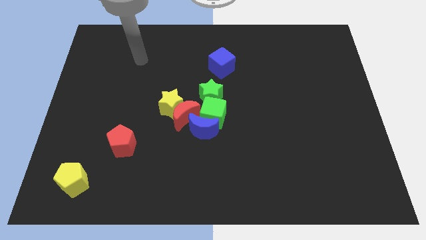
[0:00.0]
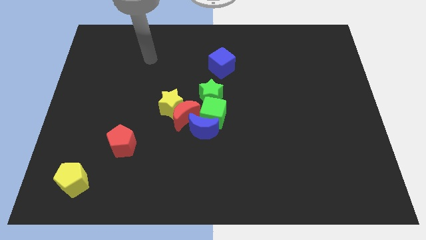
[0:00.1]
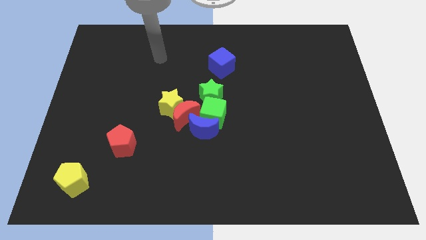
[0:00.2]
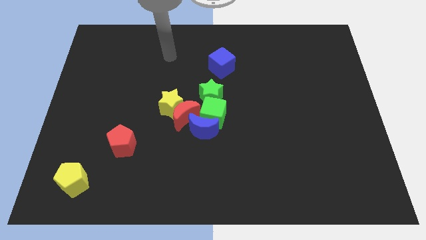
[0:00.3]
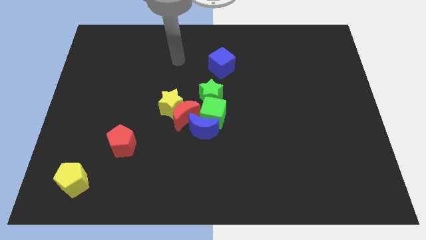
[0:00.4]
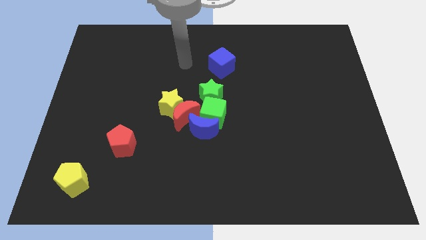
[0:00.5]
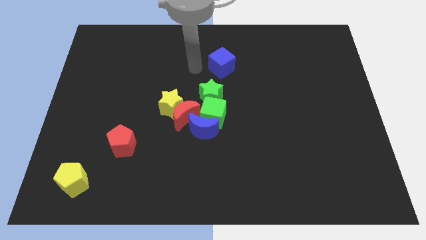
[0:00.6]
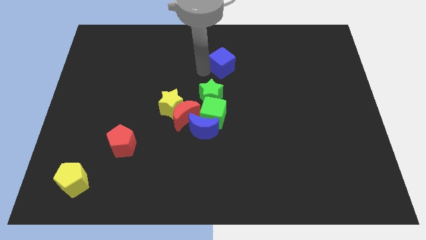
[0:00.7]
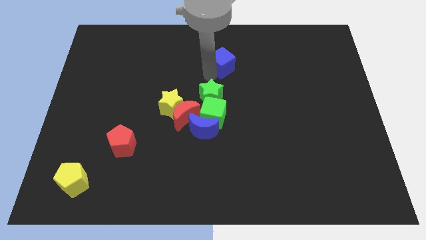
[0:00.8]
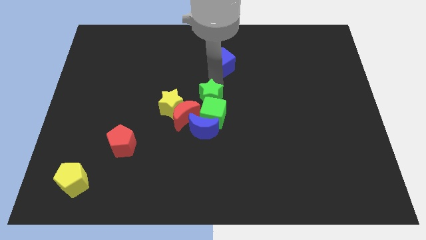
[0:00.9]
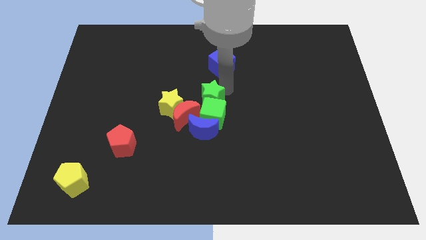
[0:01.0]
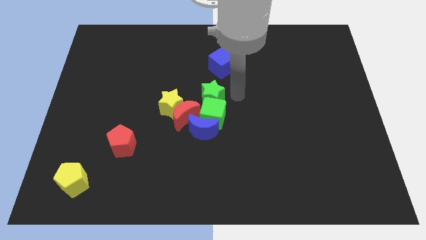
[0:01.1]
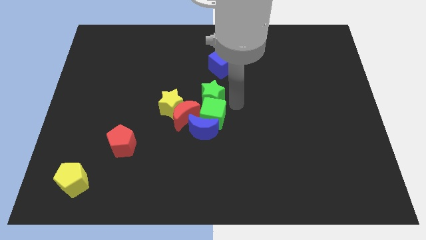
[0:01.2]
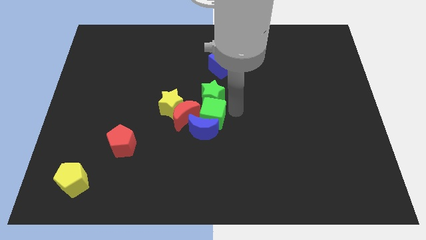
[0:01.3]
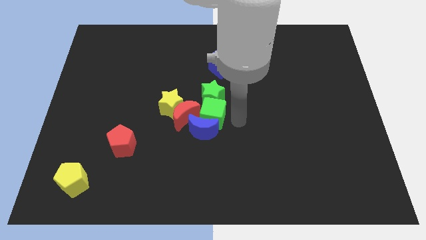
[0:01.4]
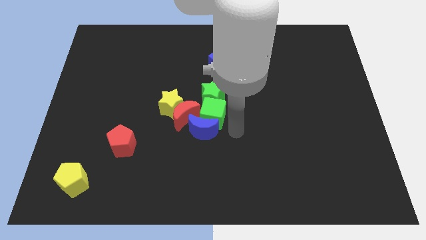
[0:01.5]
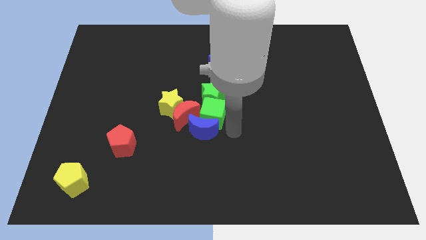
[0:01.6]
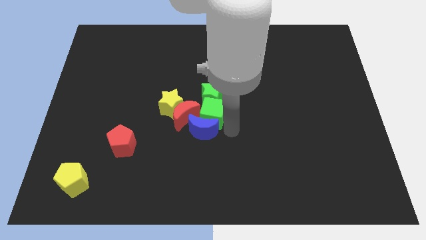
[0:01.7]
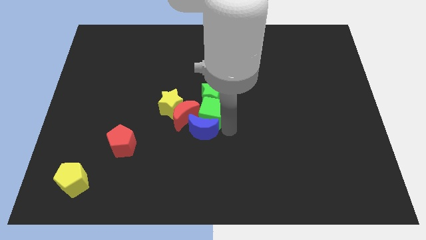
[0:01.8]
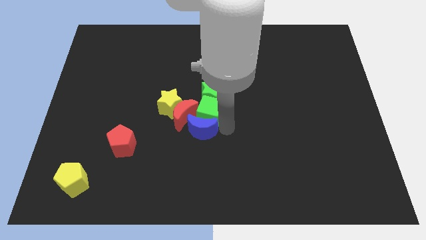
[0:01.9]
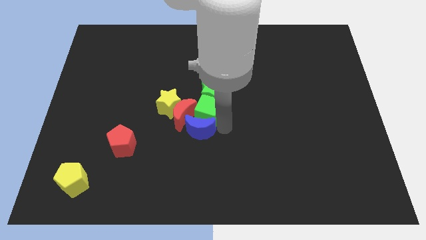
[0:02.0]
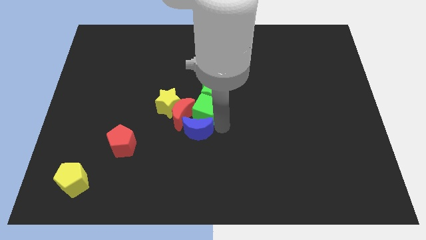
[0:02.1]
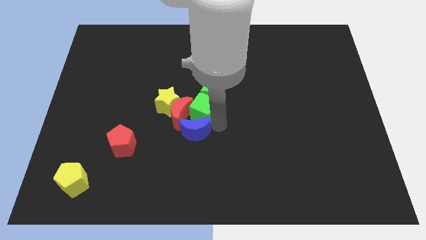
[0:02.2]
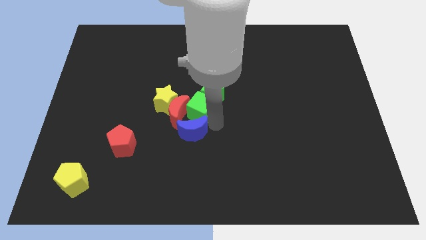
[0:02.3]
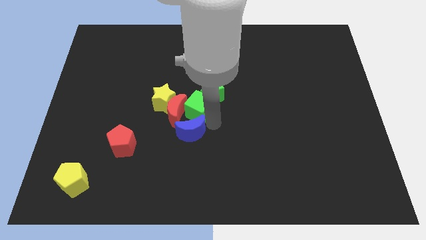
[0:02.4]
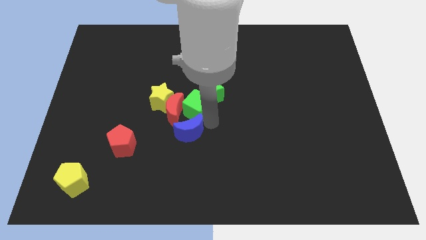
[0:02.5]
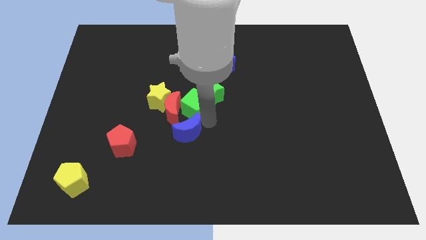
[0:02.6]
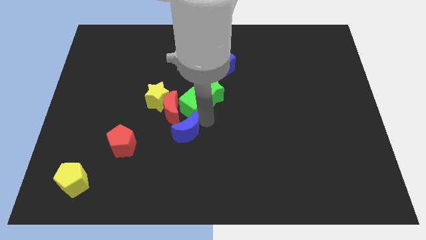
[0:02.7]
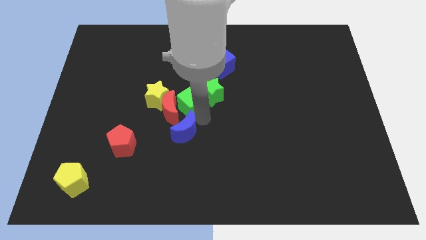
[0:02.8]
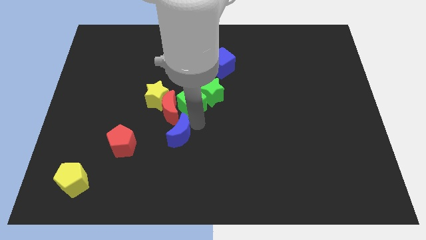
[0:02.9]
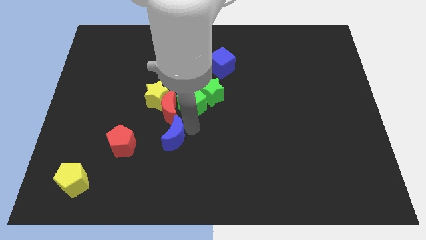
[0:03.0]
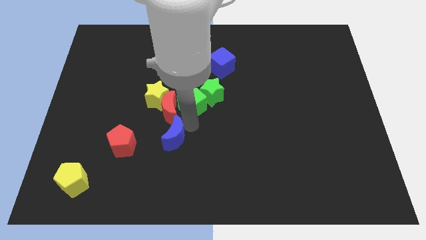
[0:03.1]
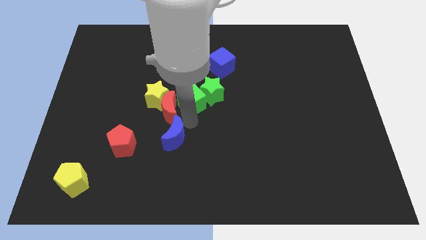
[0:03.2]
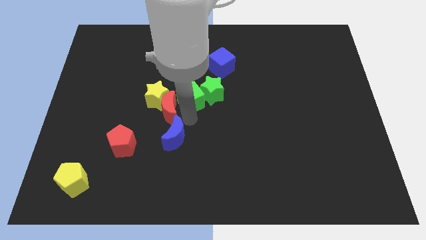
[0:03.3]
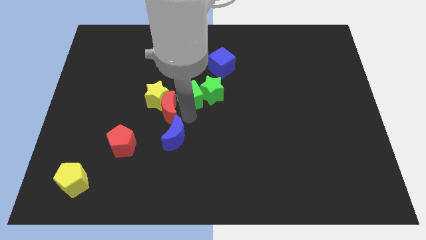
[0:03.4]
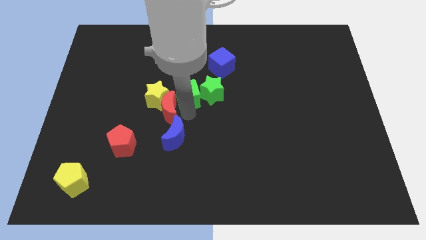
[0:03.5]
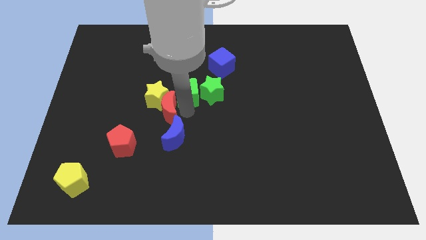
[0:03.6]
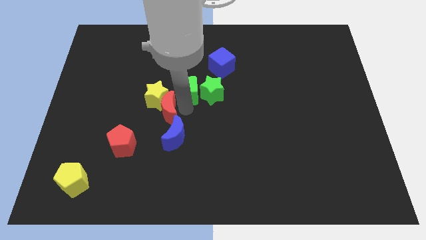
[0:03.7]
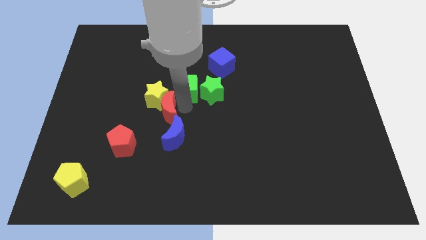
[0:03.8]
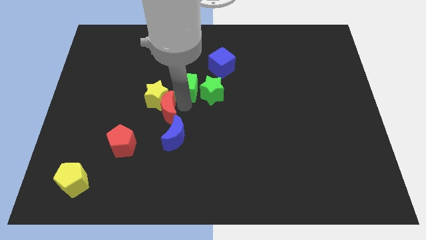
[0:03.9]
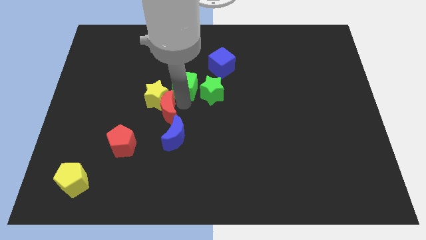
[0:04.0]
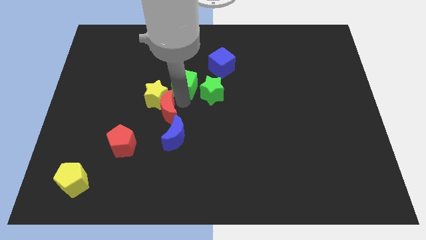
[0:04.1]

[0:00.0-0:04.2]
push the green cube up a little bit

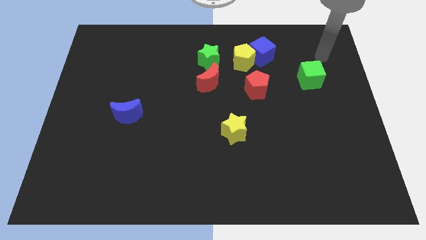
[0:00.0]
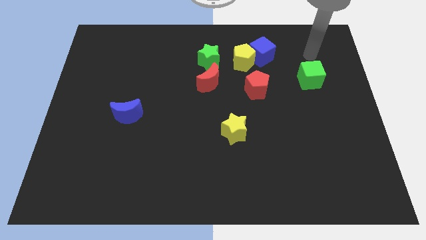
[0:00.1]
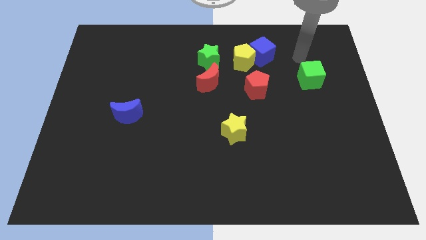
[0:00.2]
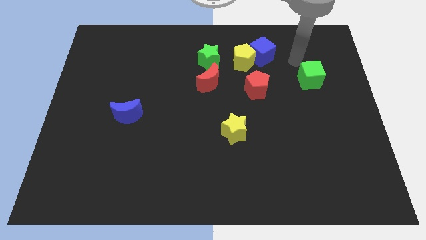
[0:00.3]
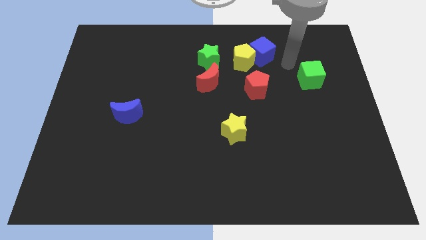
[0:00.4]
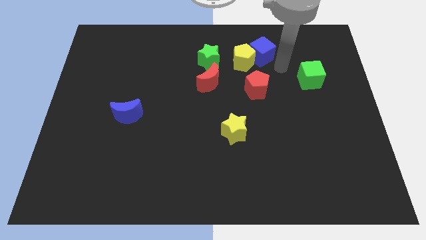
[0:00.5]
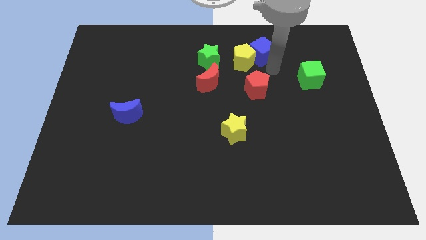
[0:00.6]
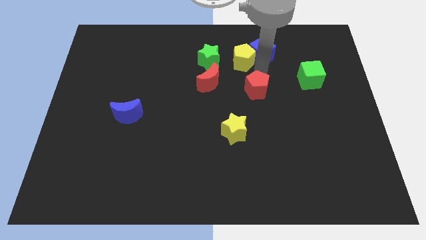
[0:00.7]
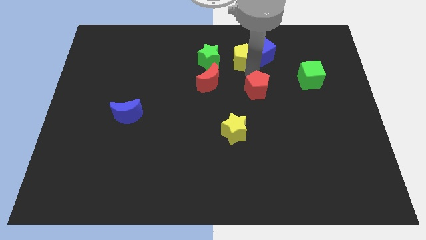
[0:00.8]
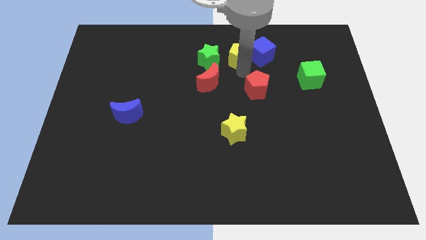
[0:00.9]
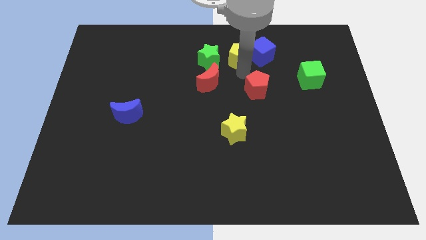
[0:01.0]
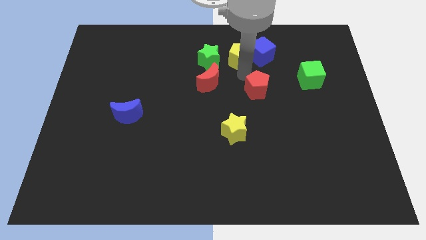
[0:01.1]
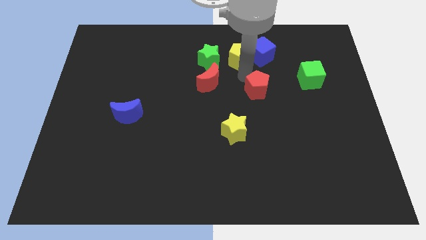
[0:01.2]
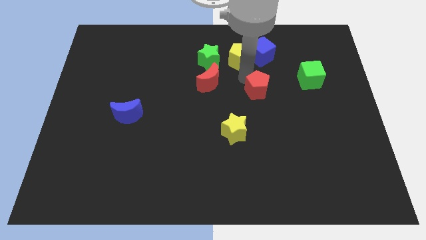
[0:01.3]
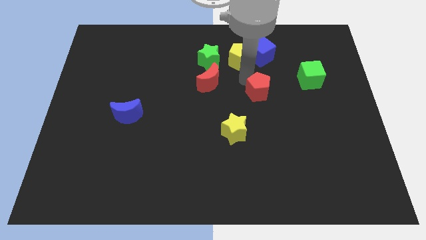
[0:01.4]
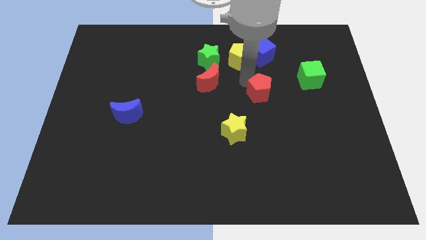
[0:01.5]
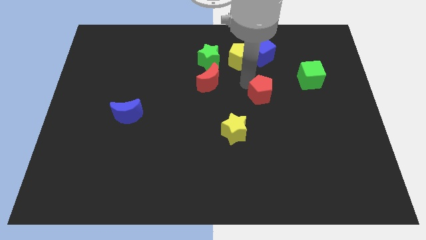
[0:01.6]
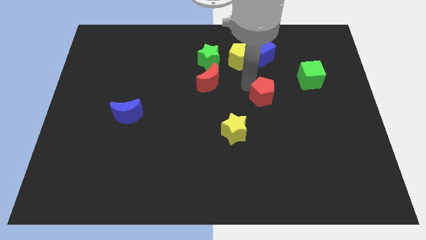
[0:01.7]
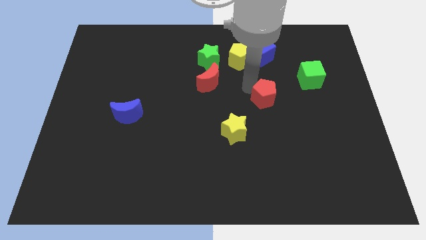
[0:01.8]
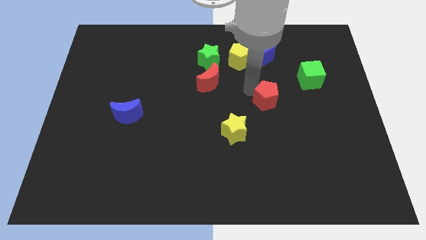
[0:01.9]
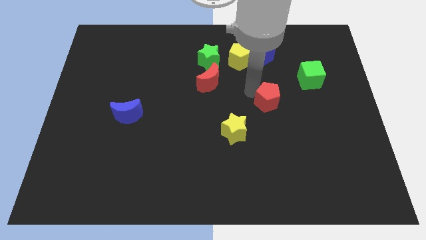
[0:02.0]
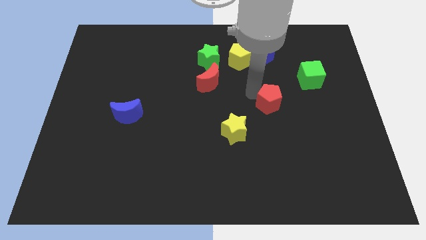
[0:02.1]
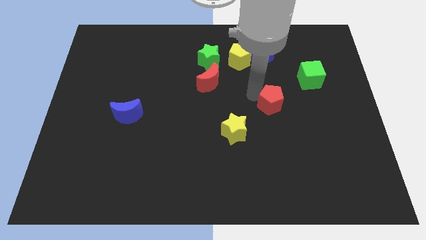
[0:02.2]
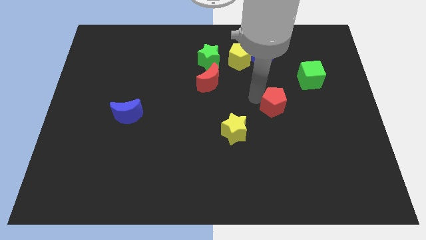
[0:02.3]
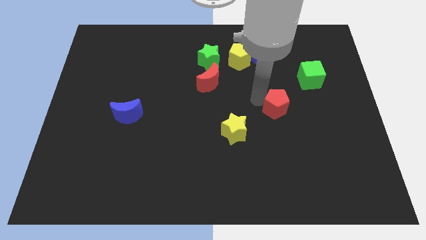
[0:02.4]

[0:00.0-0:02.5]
slightly slide the red pentagon diagonally down and to the right

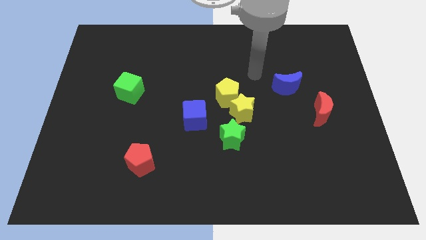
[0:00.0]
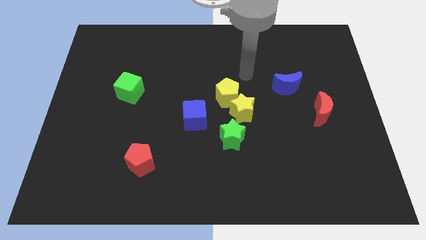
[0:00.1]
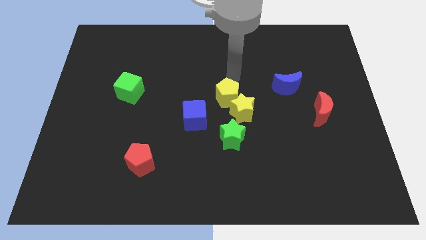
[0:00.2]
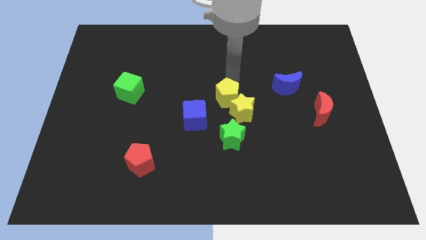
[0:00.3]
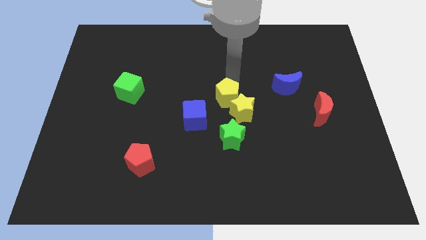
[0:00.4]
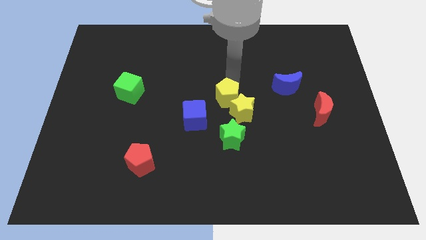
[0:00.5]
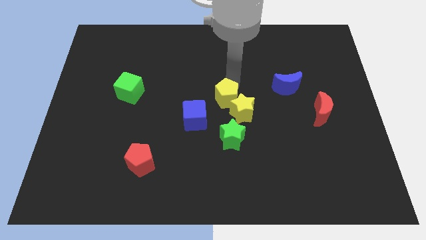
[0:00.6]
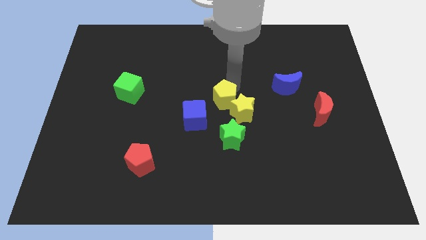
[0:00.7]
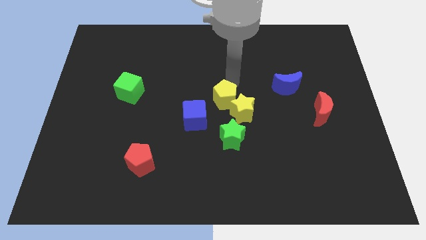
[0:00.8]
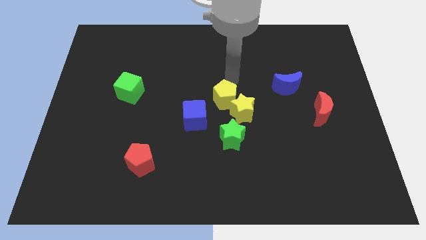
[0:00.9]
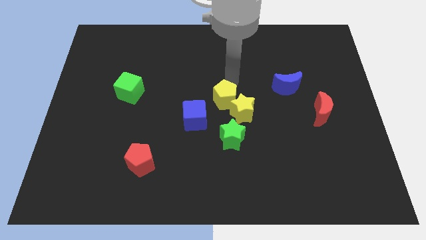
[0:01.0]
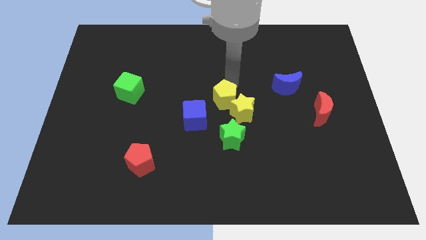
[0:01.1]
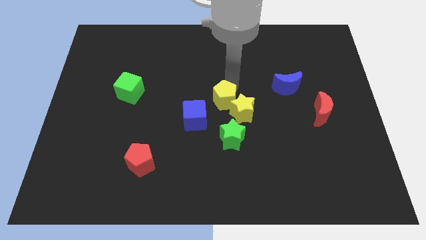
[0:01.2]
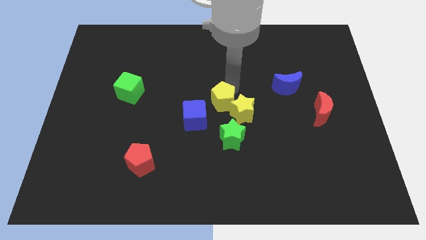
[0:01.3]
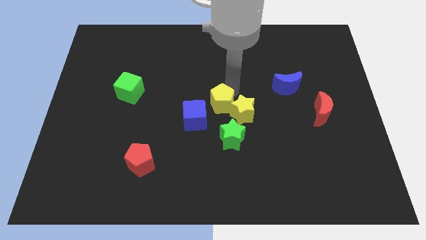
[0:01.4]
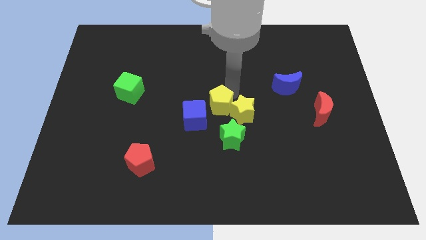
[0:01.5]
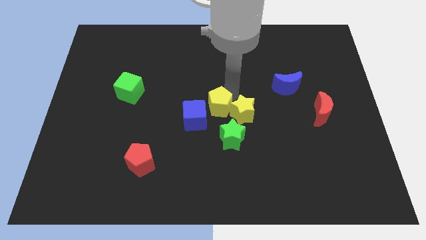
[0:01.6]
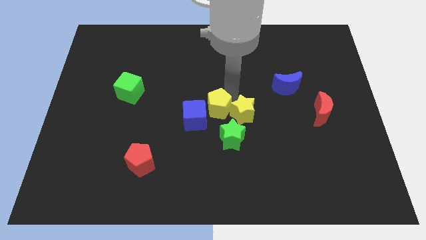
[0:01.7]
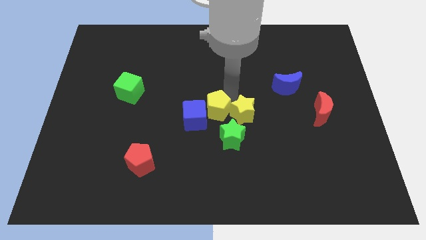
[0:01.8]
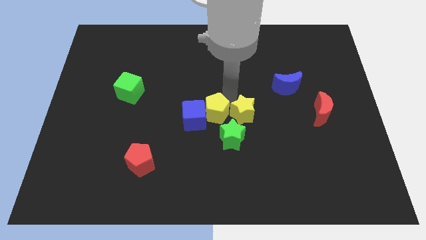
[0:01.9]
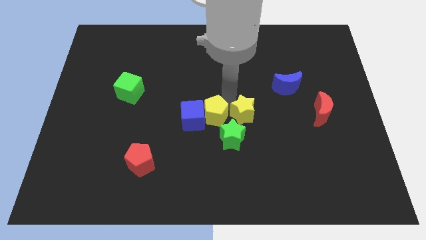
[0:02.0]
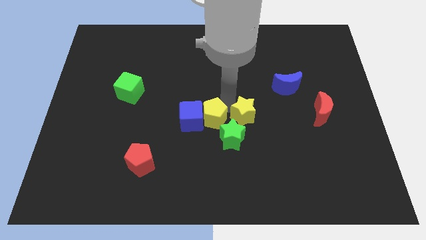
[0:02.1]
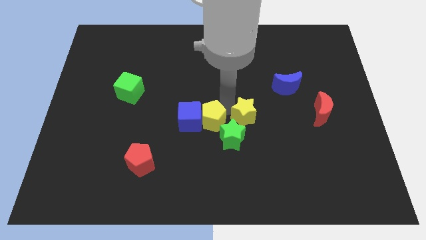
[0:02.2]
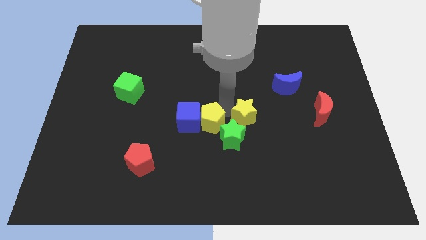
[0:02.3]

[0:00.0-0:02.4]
push the yellow pentagon slightly downwards
